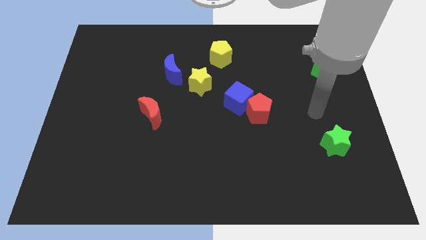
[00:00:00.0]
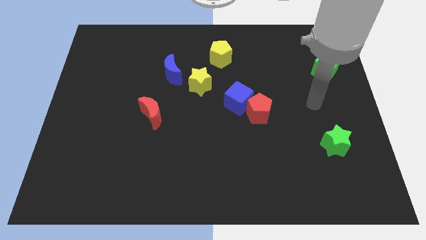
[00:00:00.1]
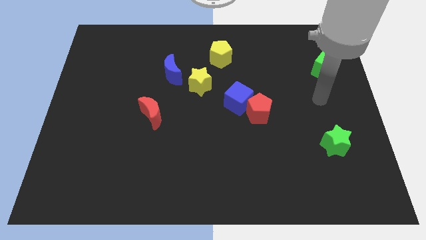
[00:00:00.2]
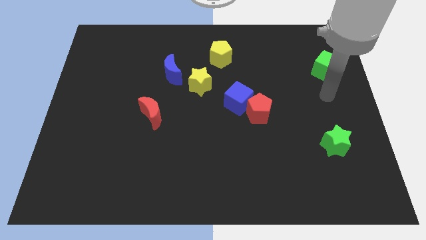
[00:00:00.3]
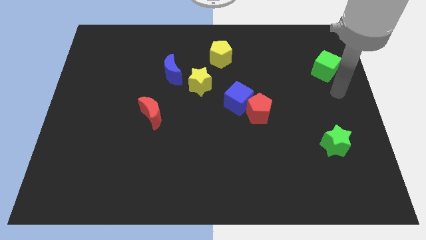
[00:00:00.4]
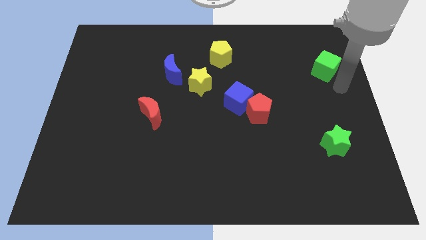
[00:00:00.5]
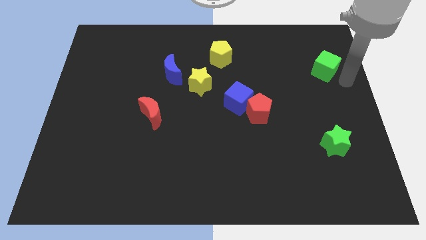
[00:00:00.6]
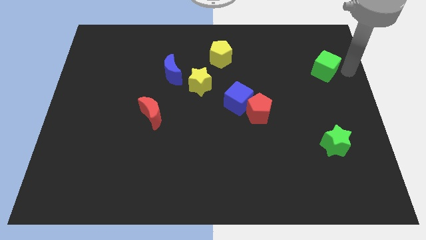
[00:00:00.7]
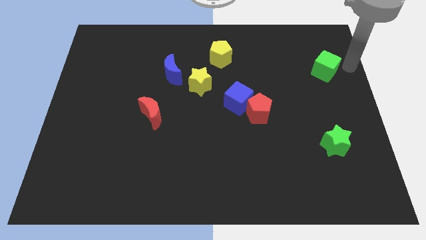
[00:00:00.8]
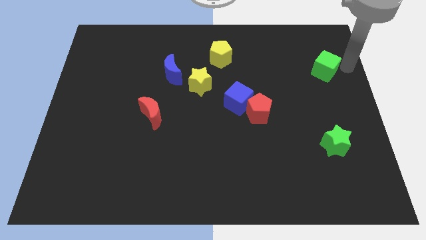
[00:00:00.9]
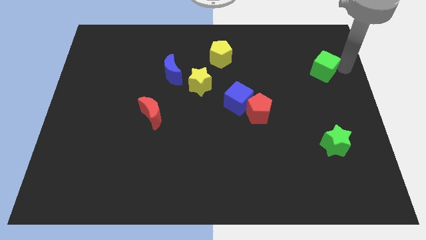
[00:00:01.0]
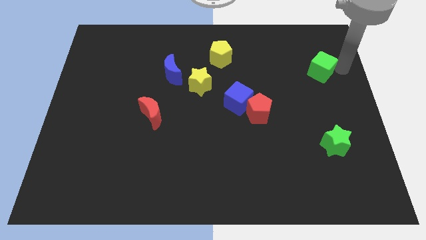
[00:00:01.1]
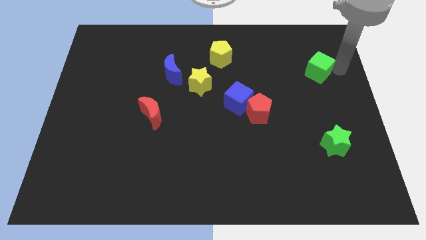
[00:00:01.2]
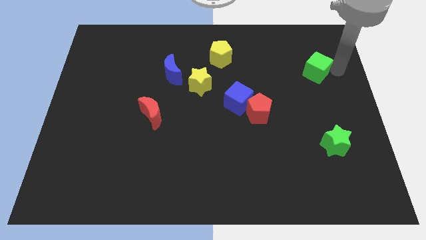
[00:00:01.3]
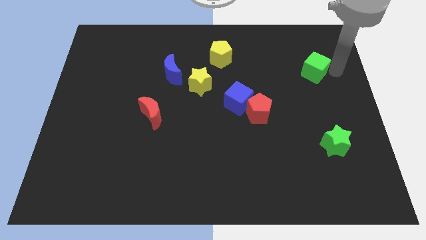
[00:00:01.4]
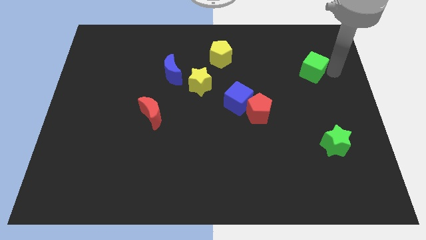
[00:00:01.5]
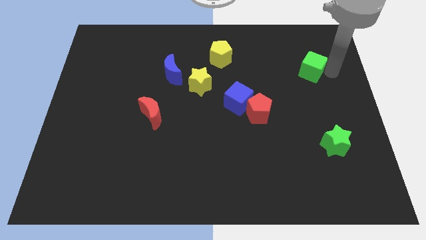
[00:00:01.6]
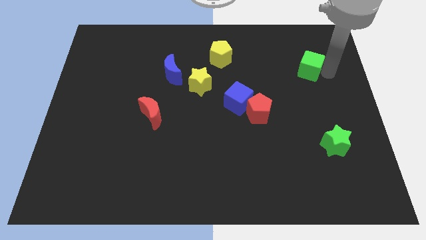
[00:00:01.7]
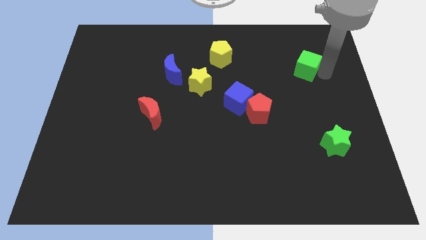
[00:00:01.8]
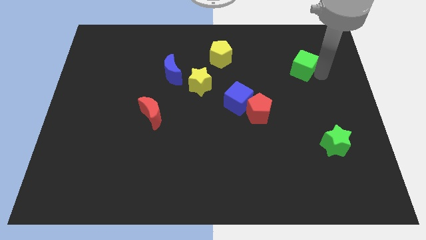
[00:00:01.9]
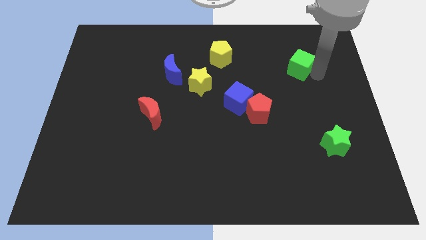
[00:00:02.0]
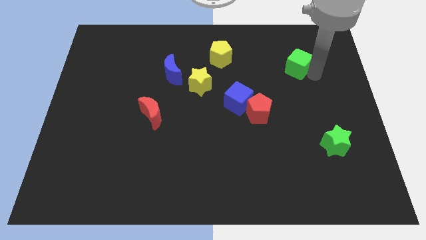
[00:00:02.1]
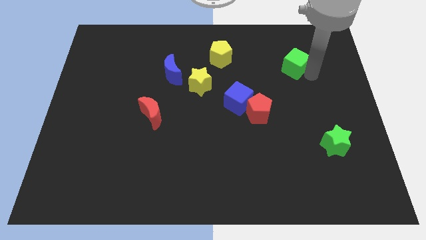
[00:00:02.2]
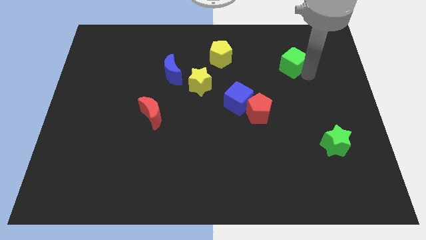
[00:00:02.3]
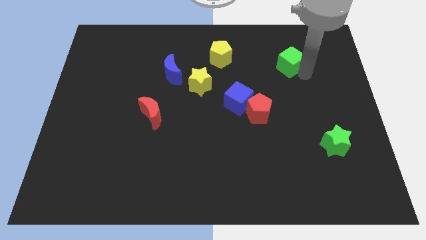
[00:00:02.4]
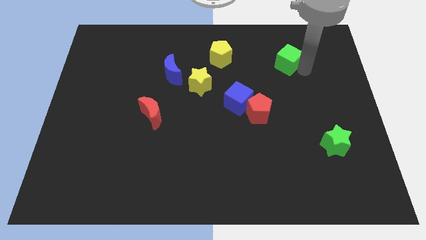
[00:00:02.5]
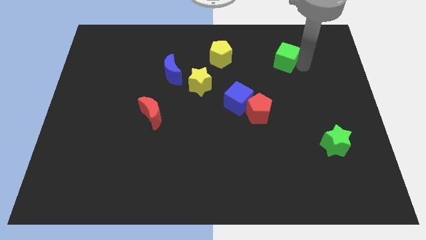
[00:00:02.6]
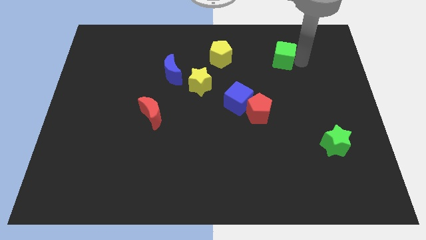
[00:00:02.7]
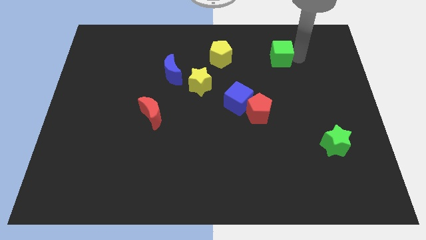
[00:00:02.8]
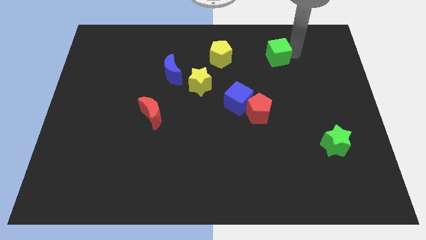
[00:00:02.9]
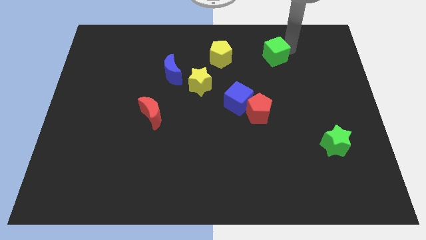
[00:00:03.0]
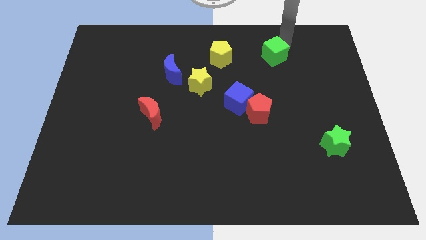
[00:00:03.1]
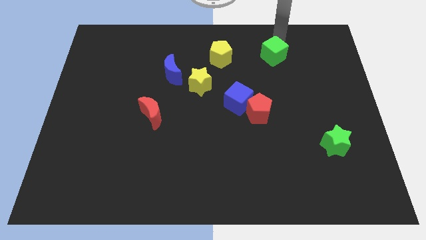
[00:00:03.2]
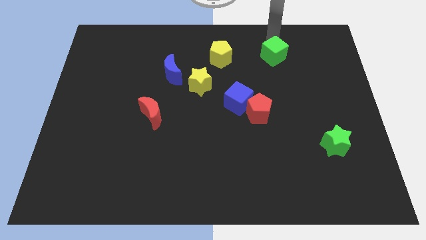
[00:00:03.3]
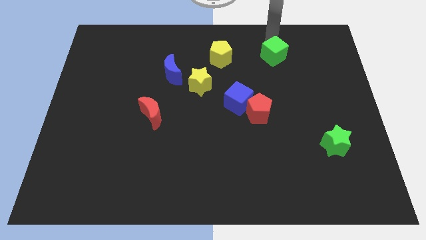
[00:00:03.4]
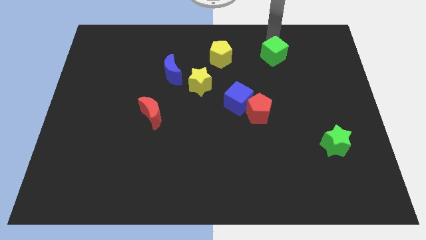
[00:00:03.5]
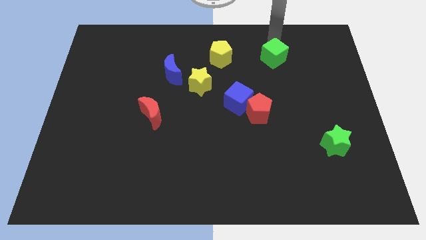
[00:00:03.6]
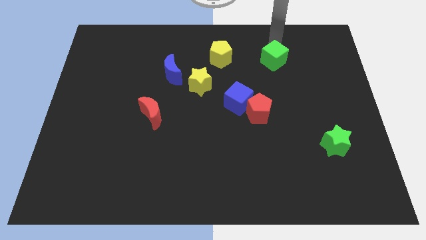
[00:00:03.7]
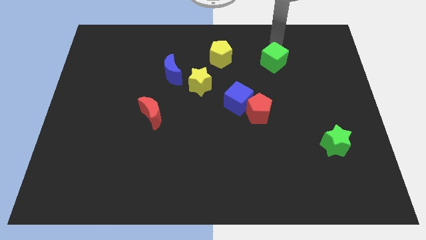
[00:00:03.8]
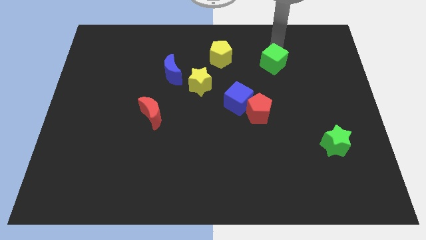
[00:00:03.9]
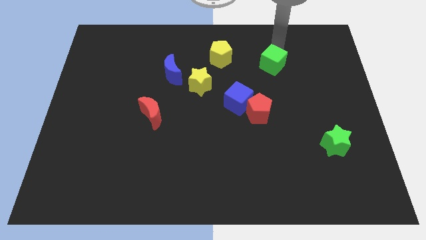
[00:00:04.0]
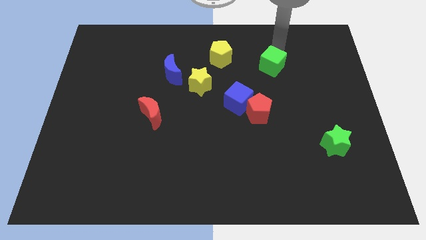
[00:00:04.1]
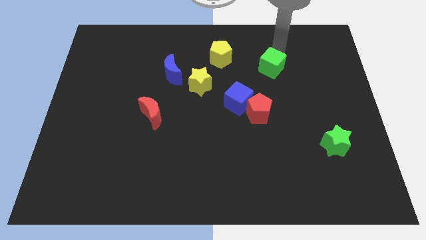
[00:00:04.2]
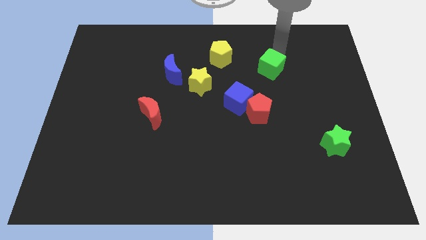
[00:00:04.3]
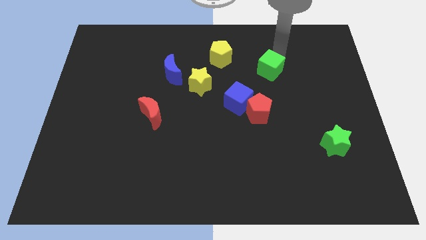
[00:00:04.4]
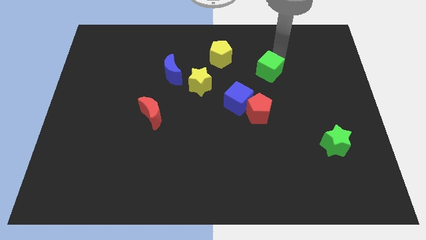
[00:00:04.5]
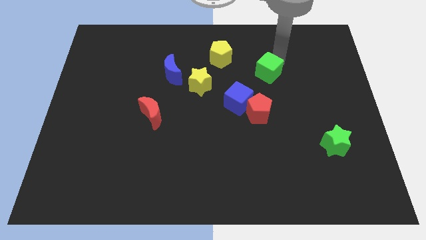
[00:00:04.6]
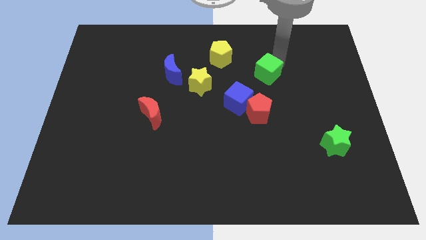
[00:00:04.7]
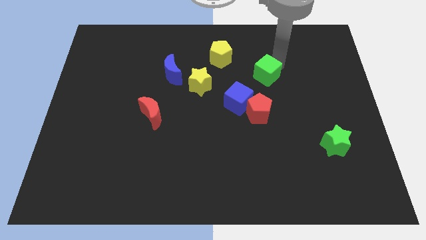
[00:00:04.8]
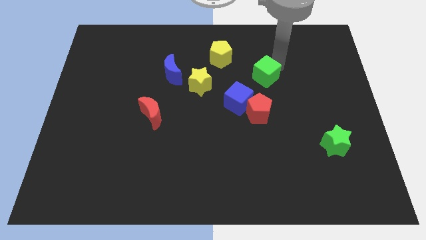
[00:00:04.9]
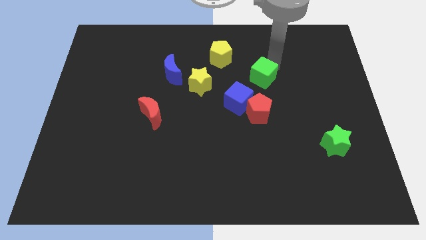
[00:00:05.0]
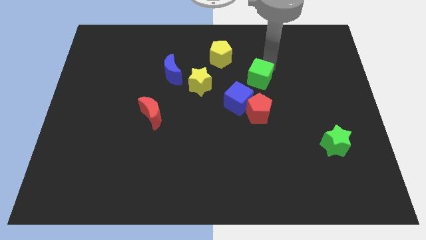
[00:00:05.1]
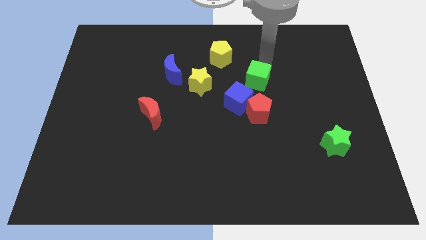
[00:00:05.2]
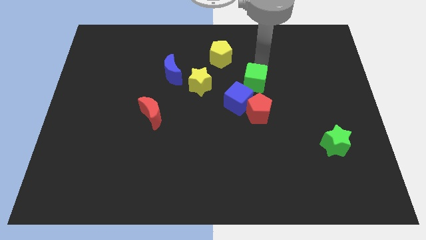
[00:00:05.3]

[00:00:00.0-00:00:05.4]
slide the green cube to the middle
